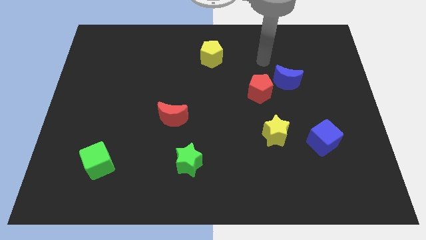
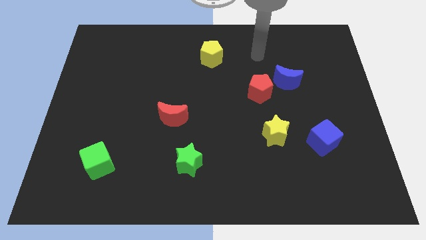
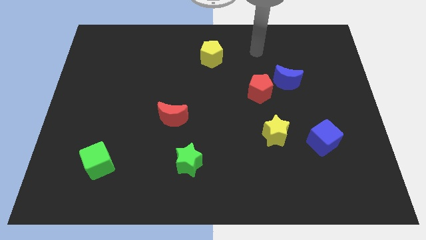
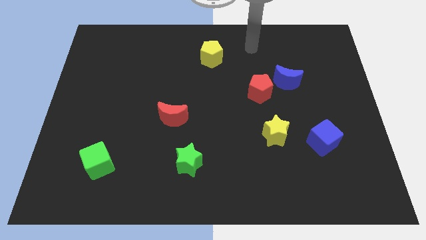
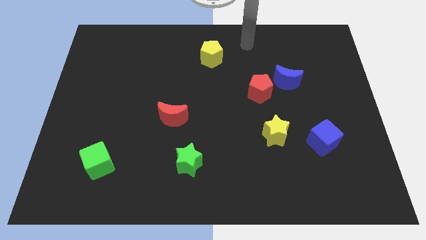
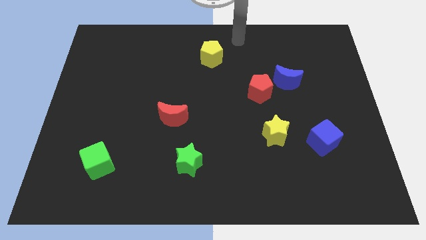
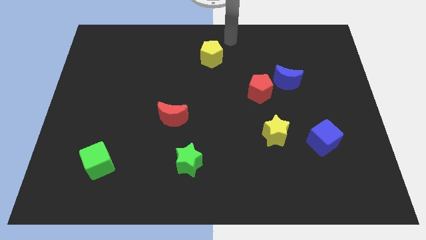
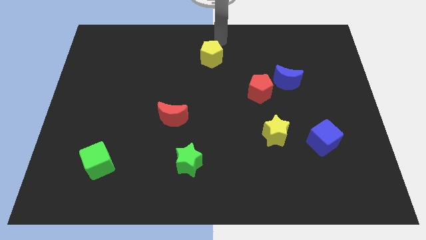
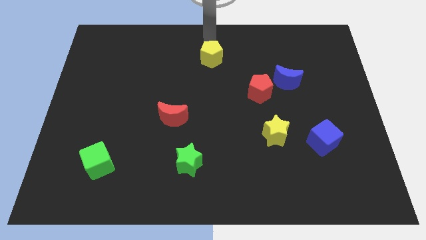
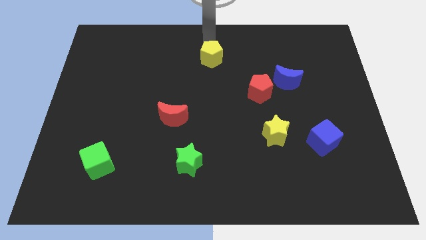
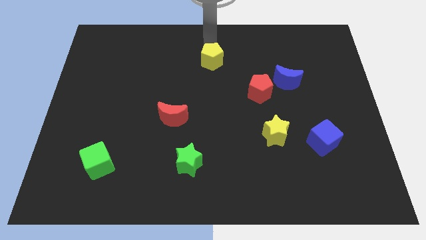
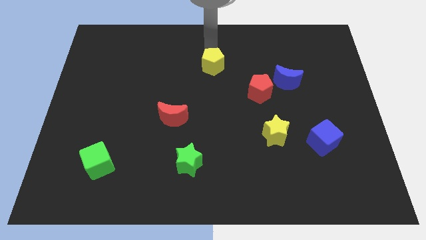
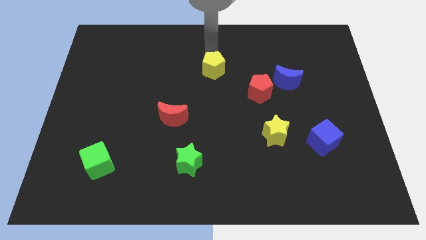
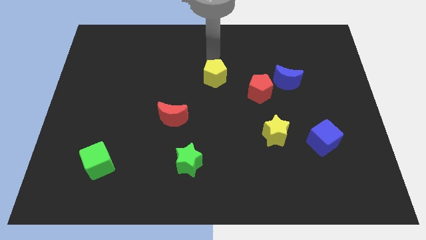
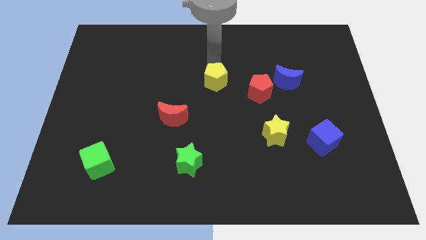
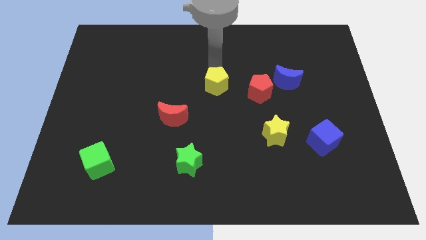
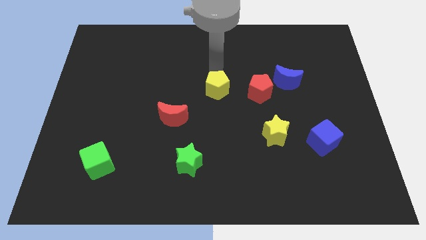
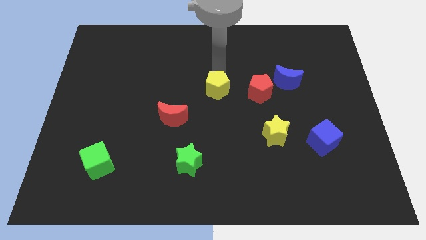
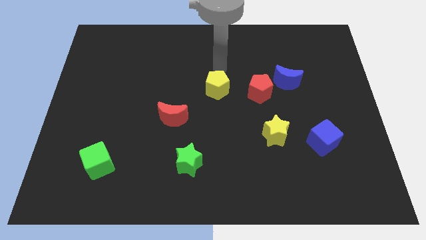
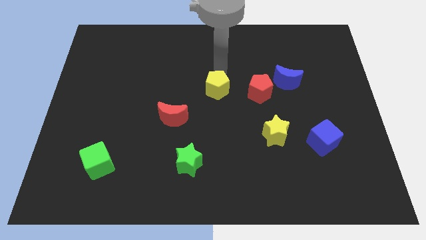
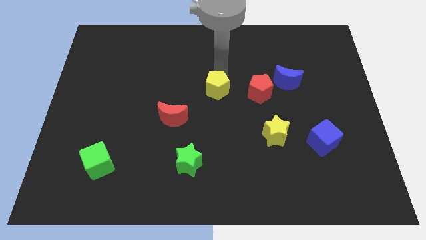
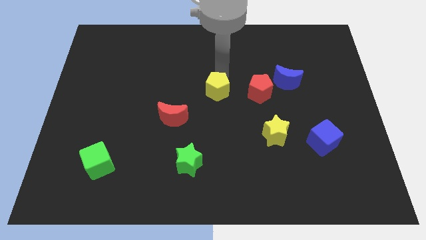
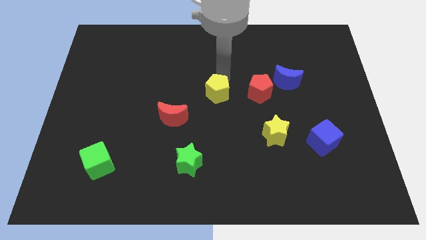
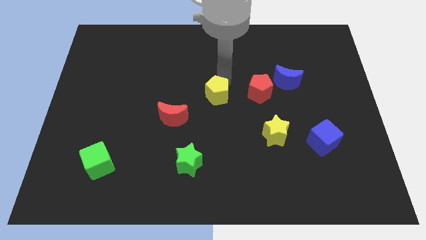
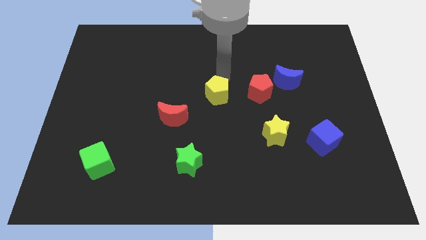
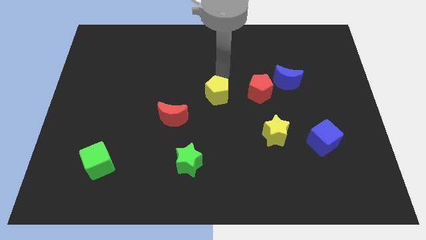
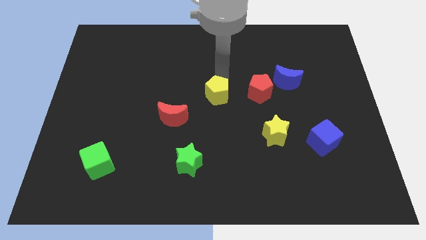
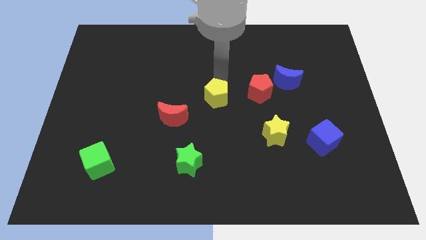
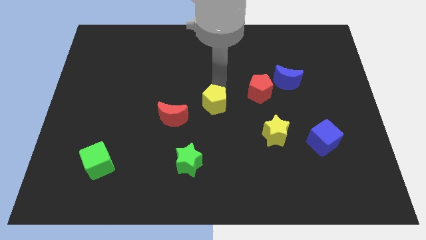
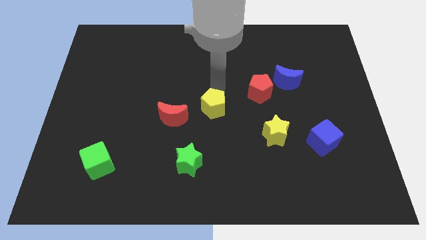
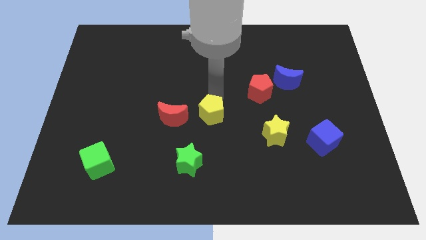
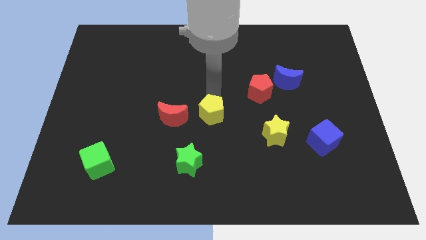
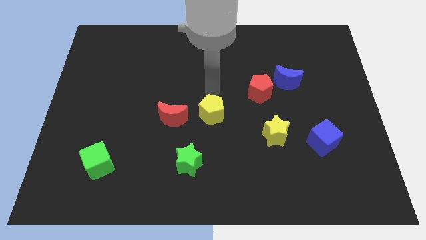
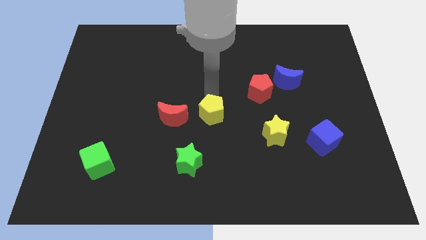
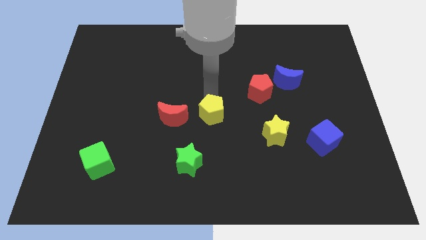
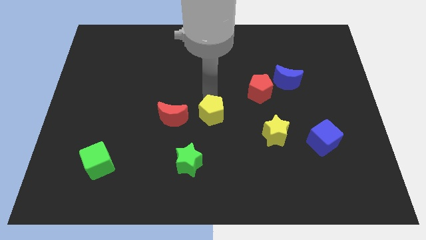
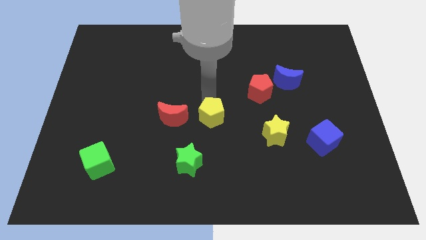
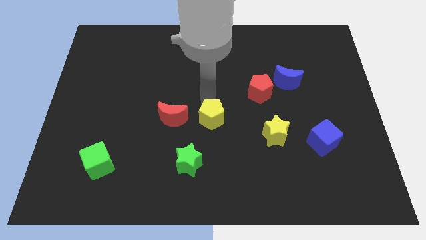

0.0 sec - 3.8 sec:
move the yellow pentagon downwards

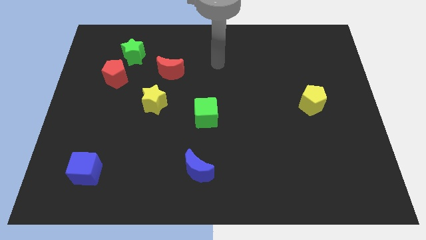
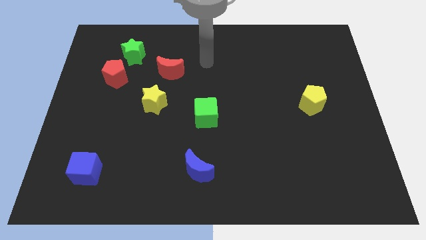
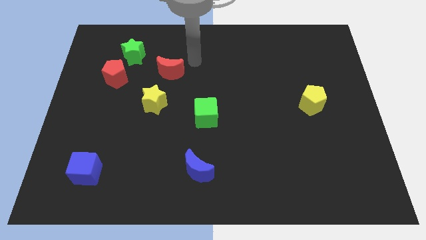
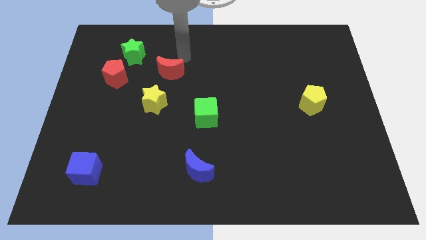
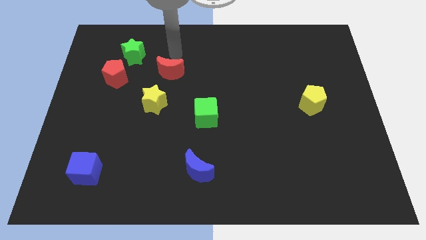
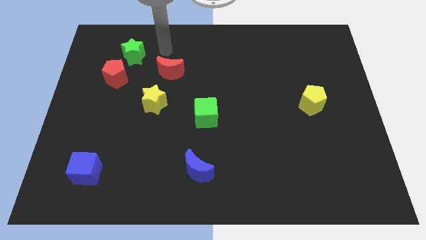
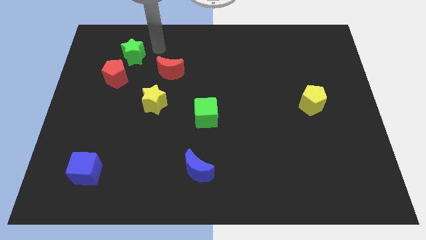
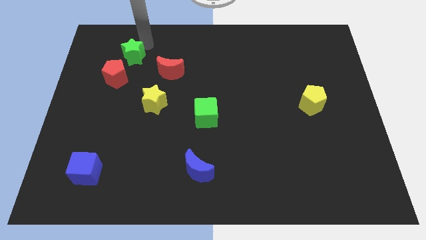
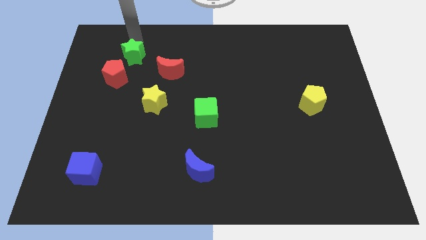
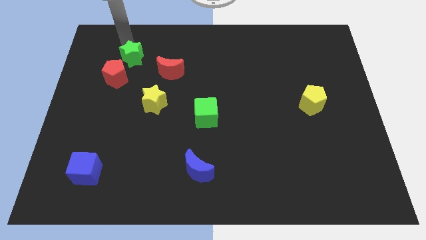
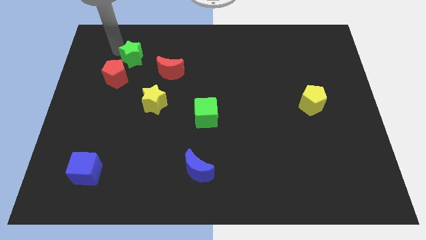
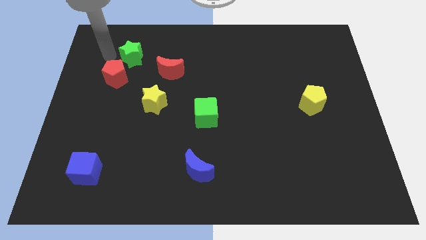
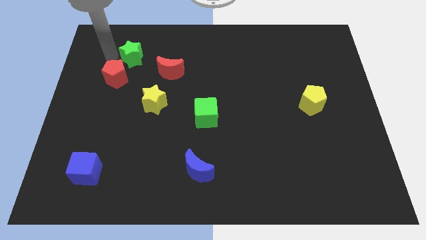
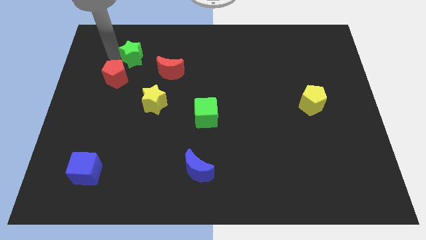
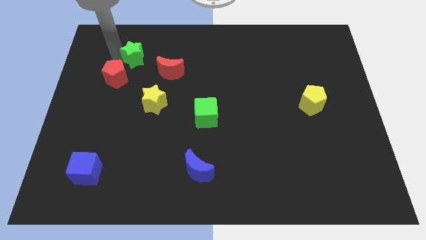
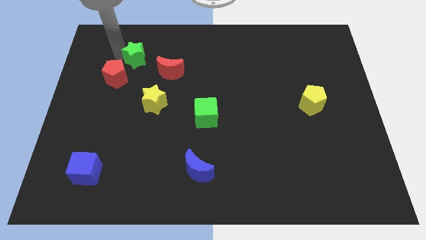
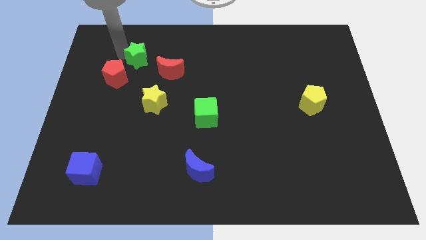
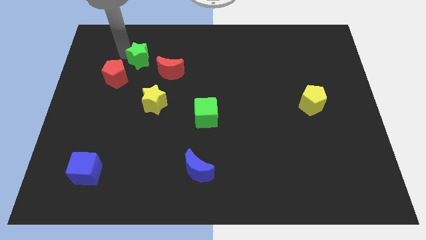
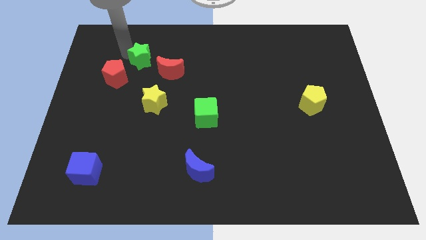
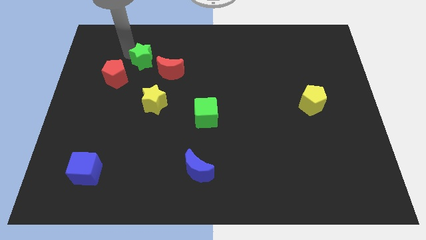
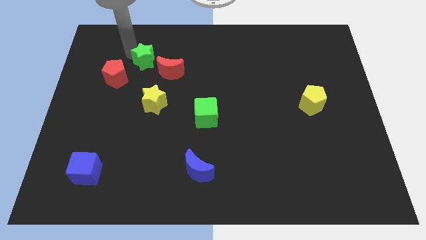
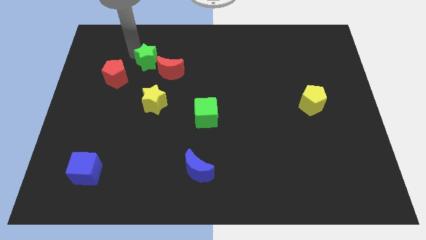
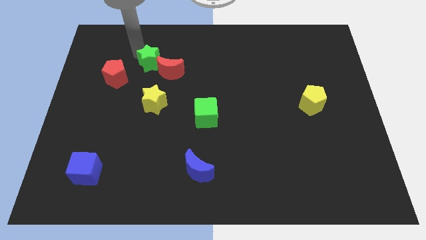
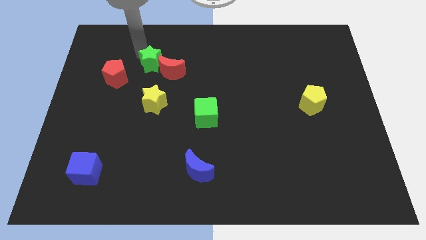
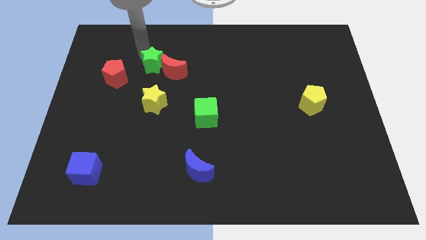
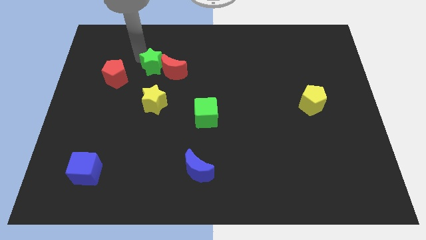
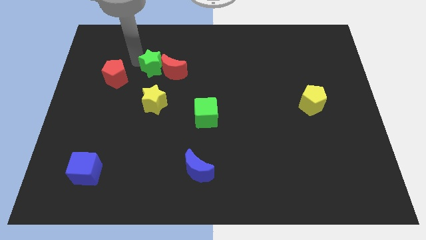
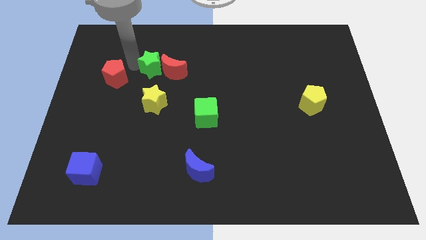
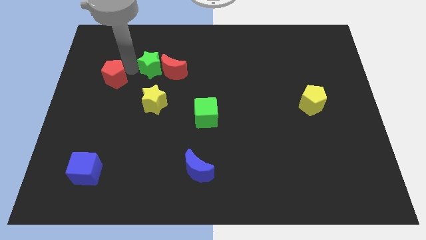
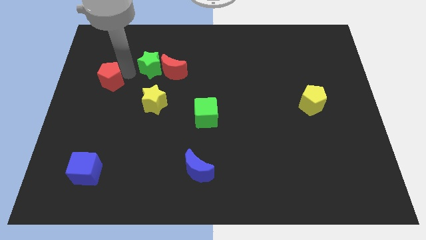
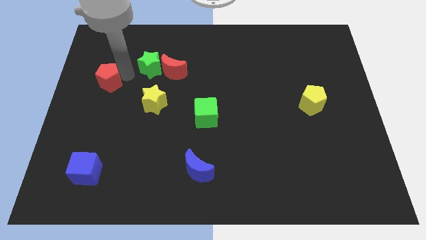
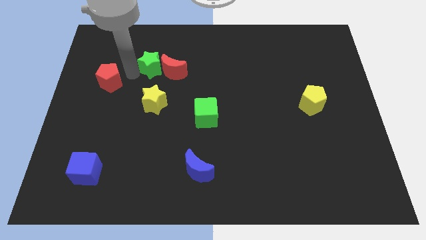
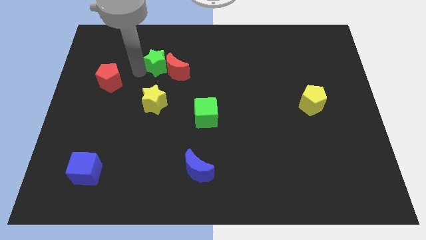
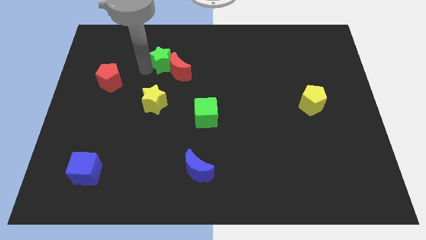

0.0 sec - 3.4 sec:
push the green star right a bit

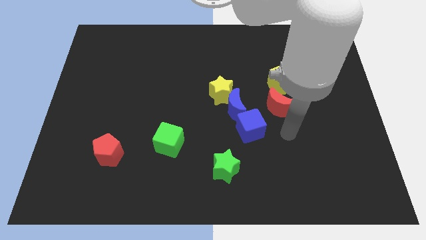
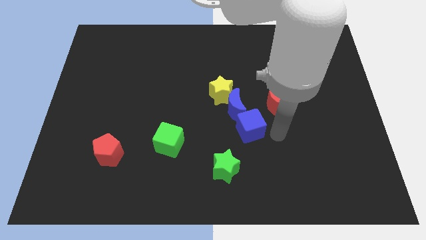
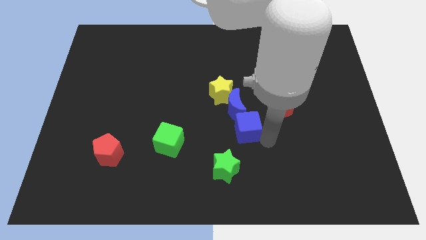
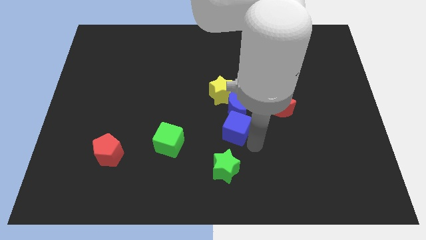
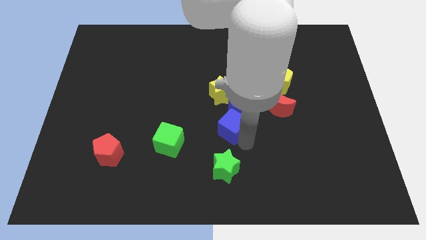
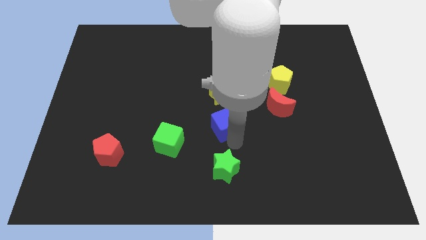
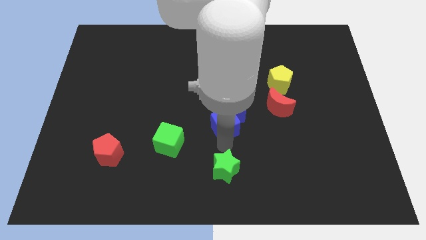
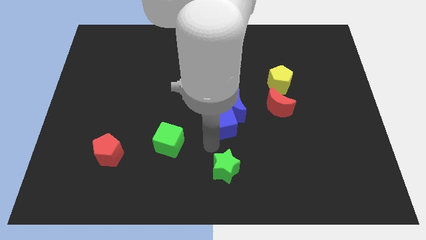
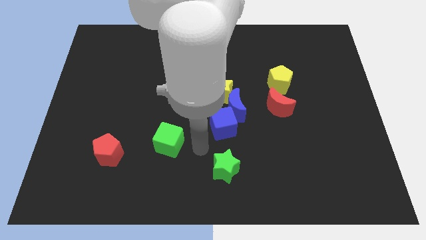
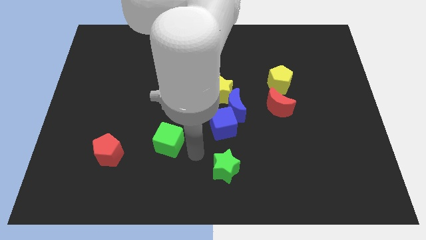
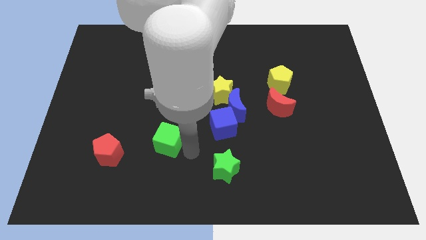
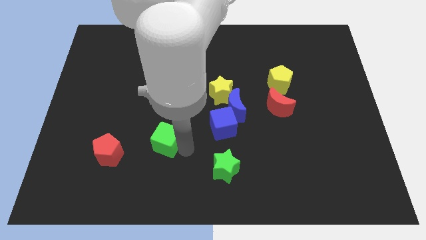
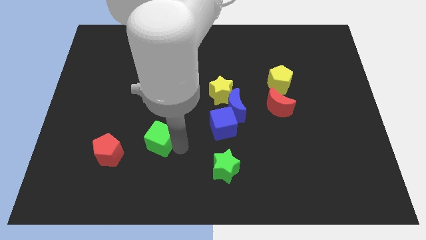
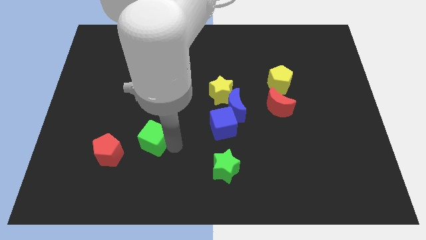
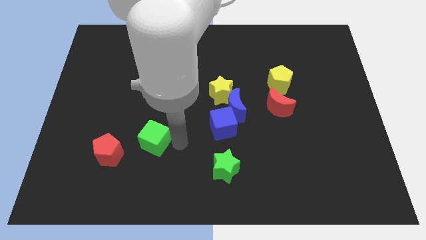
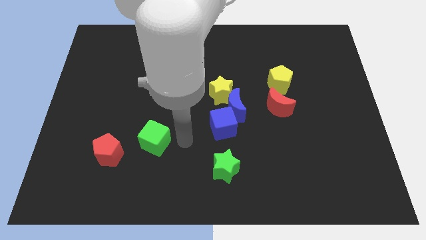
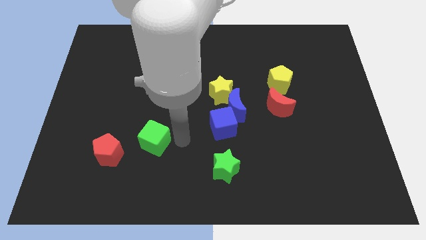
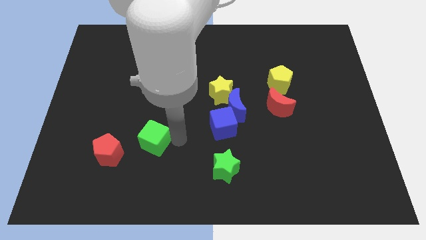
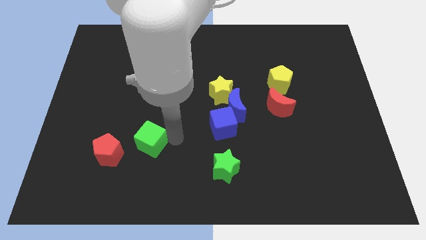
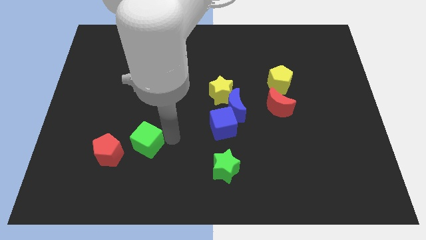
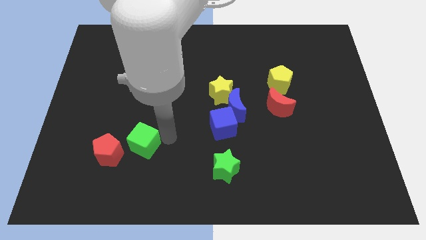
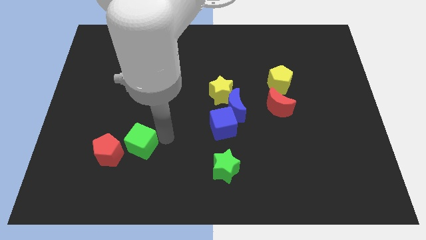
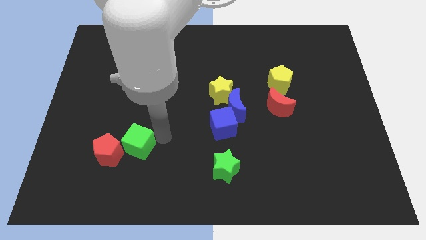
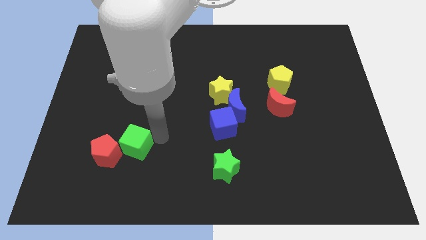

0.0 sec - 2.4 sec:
move the green cube a little bit left
